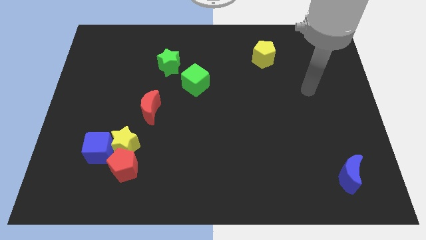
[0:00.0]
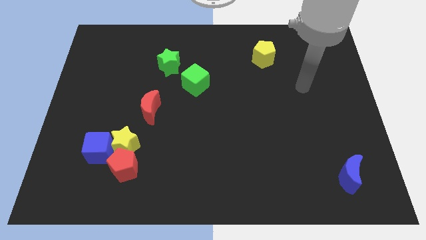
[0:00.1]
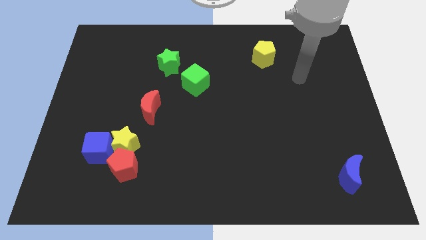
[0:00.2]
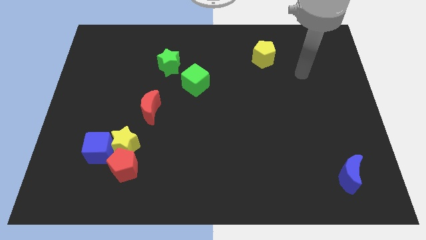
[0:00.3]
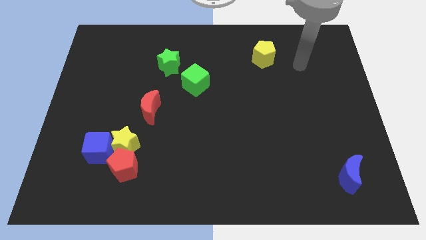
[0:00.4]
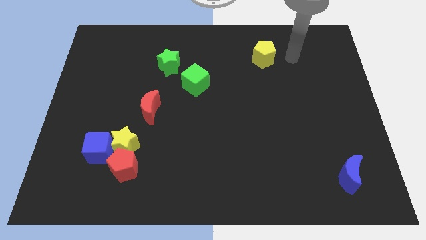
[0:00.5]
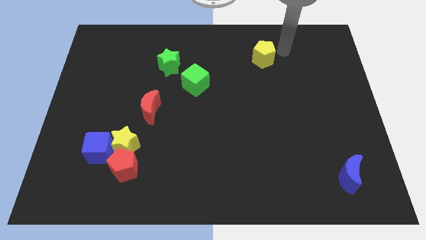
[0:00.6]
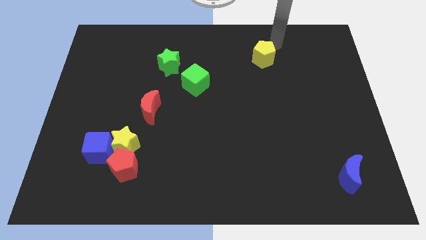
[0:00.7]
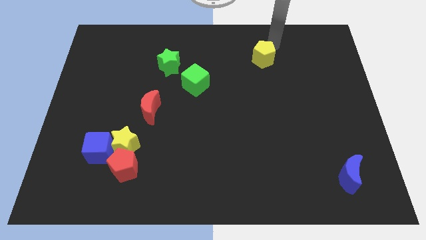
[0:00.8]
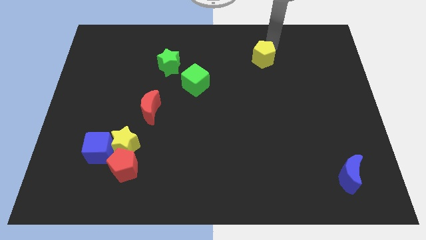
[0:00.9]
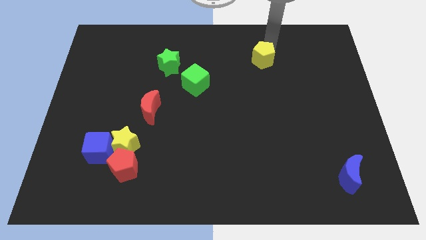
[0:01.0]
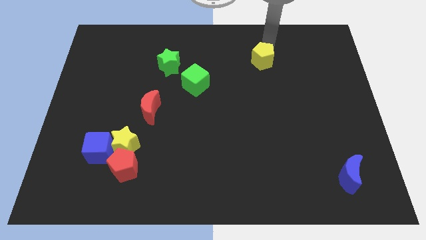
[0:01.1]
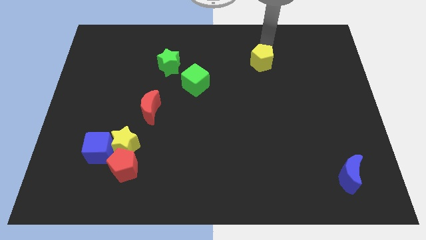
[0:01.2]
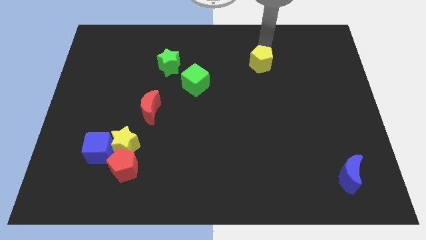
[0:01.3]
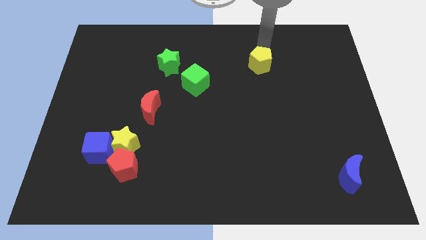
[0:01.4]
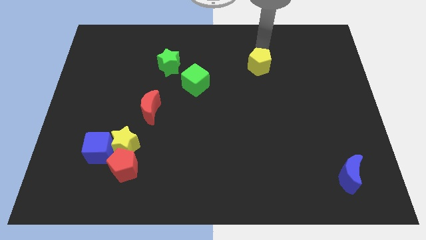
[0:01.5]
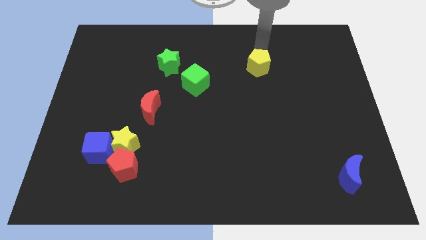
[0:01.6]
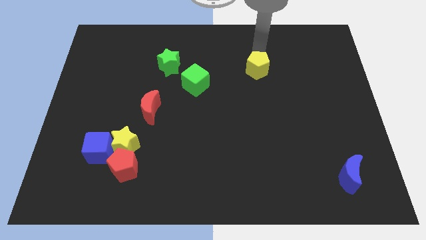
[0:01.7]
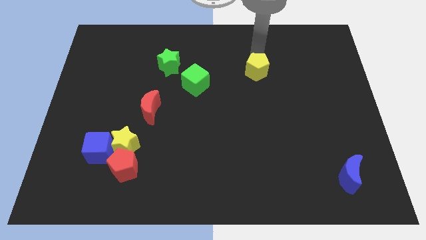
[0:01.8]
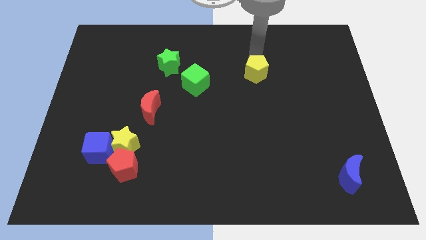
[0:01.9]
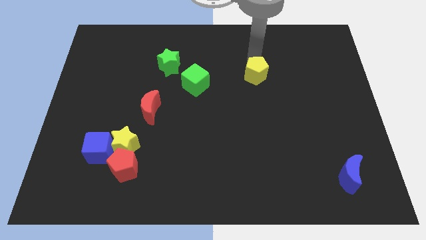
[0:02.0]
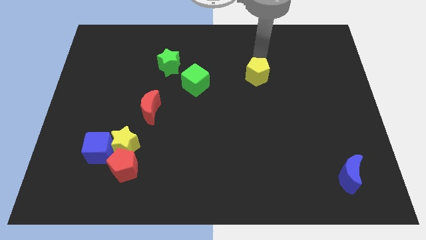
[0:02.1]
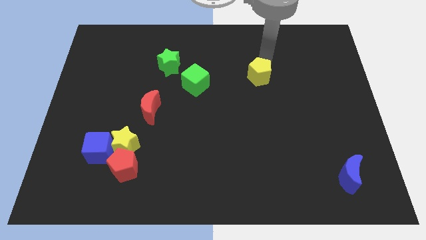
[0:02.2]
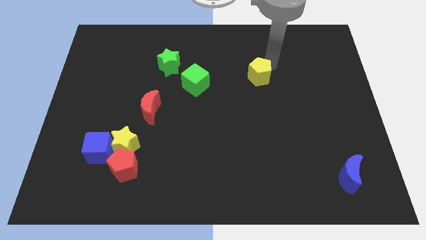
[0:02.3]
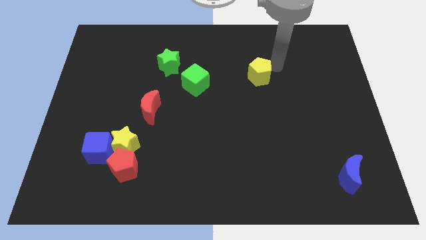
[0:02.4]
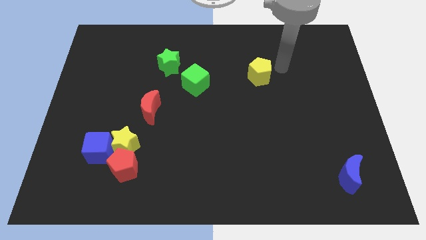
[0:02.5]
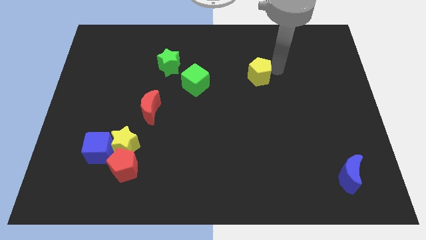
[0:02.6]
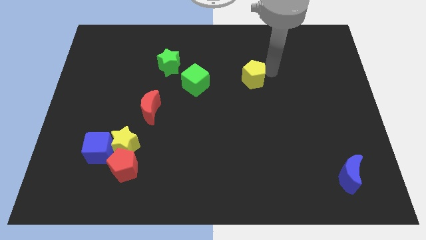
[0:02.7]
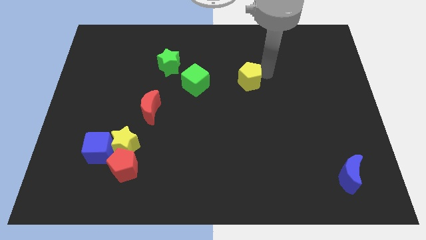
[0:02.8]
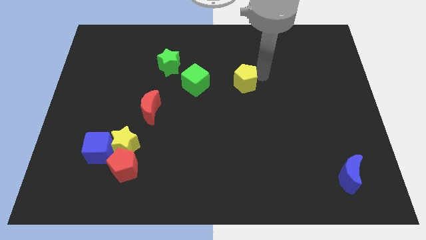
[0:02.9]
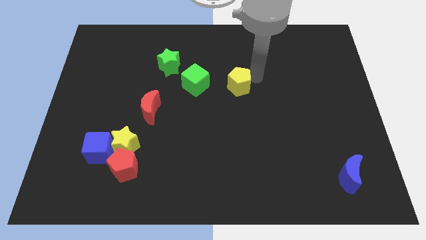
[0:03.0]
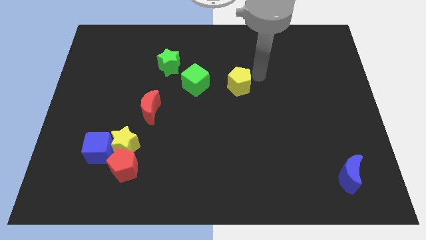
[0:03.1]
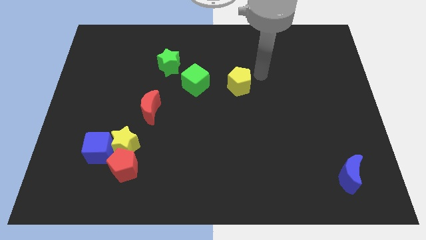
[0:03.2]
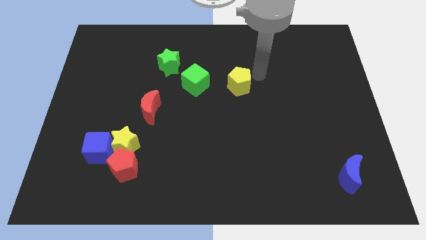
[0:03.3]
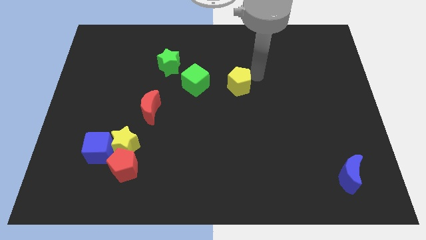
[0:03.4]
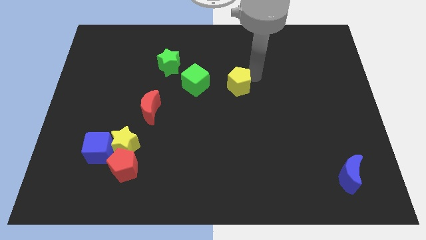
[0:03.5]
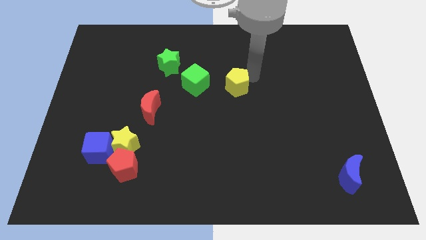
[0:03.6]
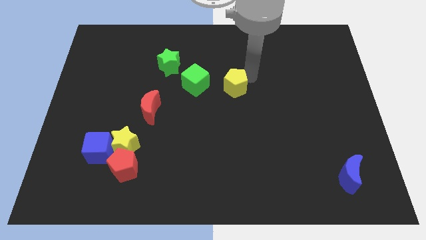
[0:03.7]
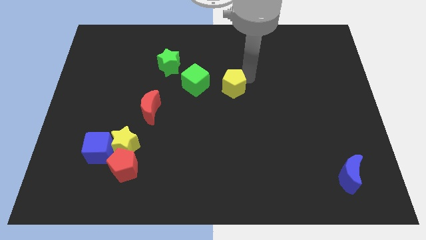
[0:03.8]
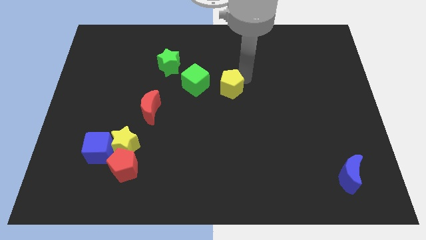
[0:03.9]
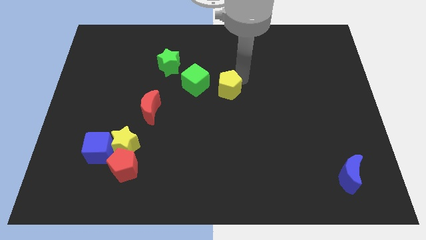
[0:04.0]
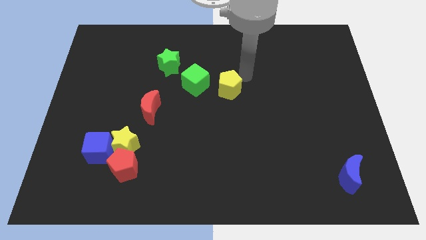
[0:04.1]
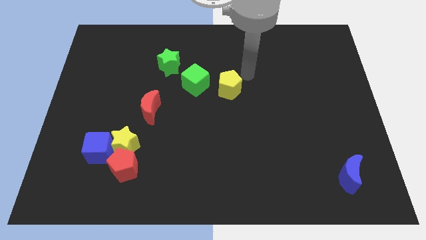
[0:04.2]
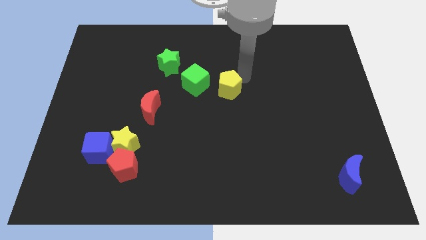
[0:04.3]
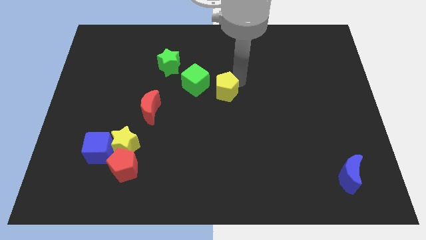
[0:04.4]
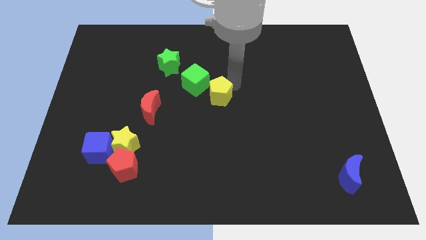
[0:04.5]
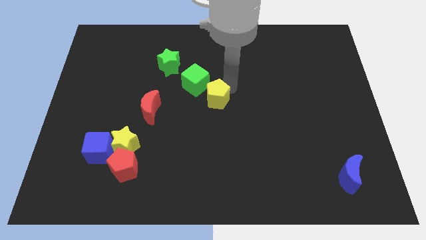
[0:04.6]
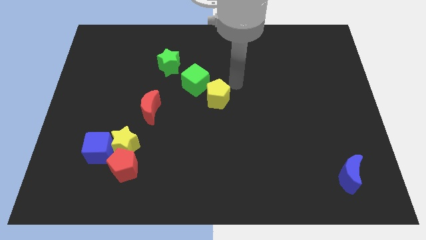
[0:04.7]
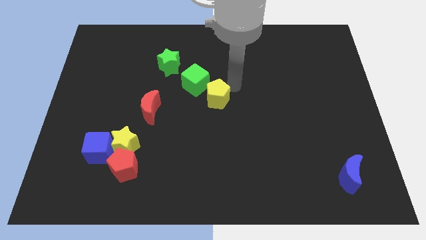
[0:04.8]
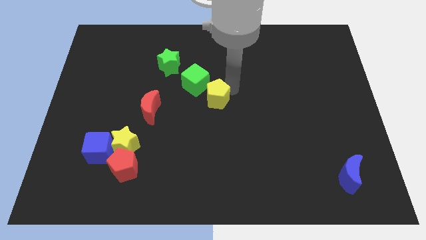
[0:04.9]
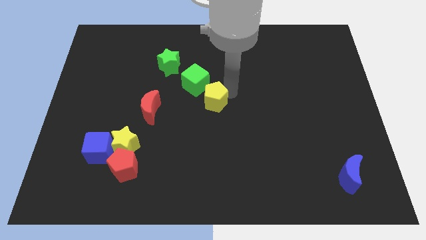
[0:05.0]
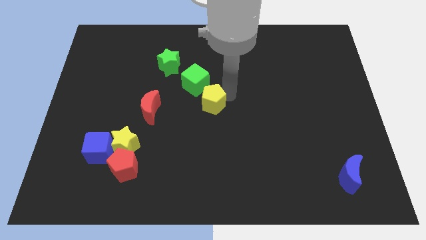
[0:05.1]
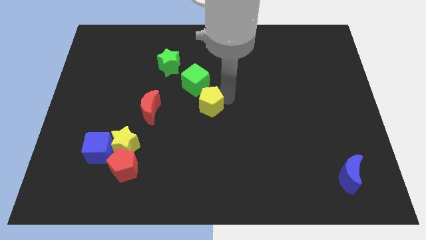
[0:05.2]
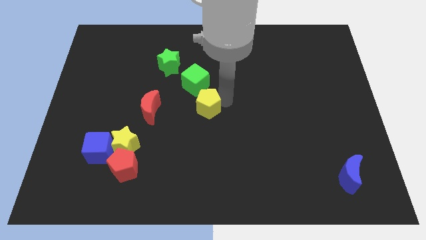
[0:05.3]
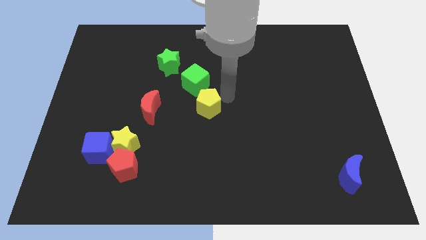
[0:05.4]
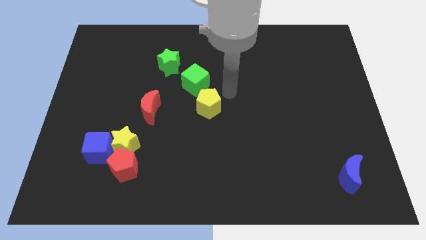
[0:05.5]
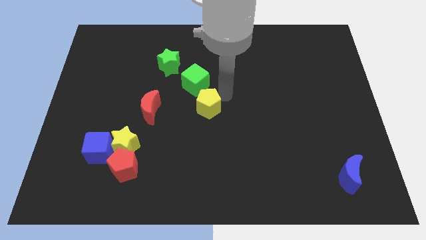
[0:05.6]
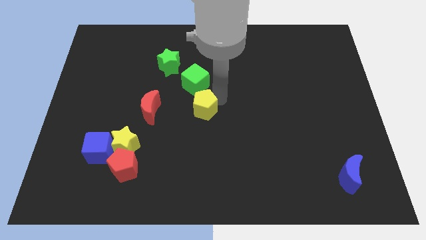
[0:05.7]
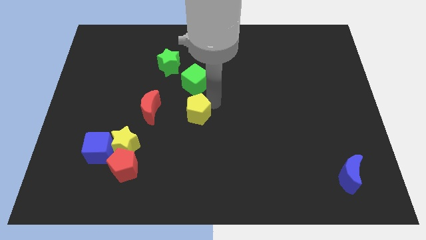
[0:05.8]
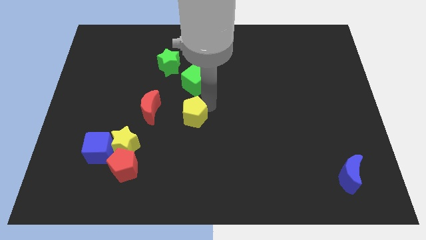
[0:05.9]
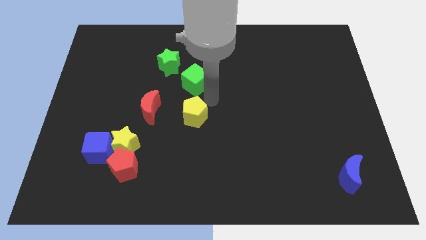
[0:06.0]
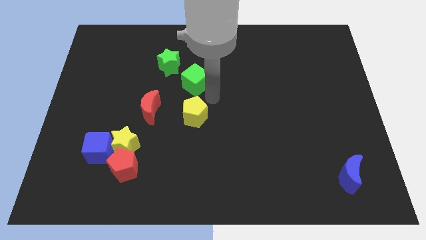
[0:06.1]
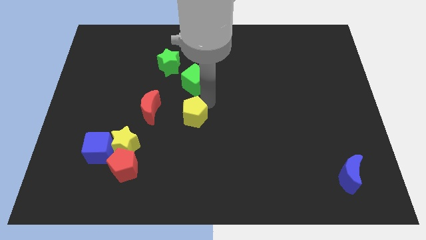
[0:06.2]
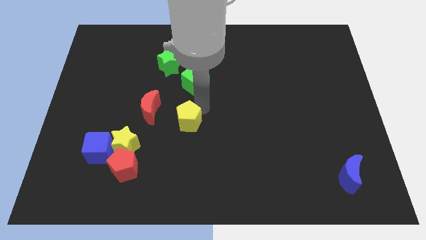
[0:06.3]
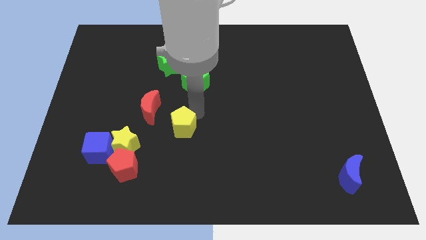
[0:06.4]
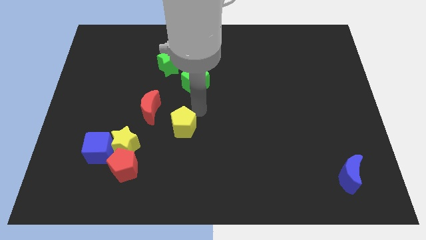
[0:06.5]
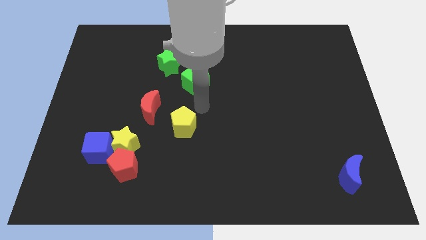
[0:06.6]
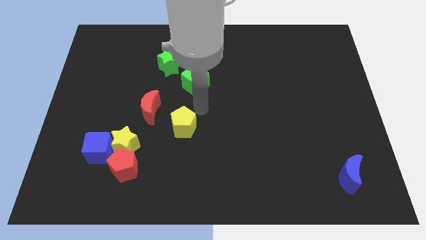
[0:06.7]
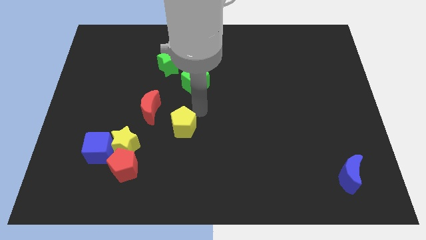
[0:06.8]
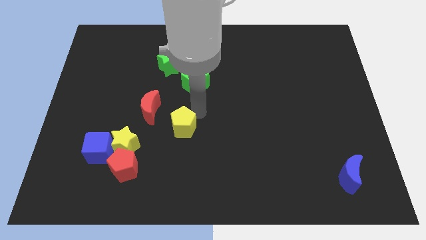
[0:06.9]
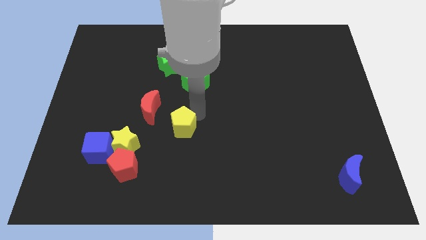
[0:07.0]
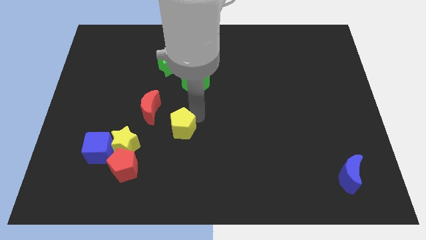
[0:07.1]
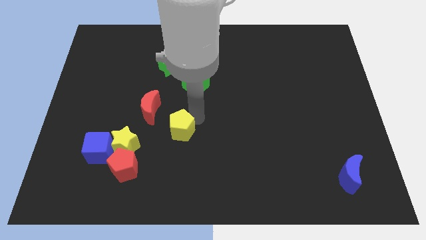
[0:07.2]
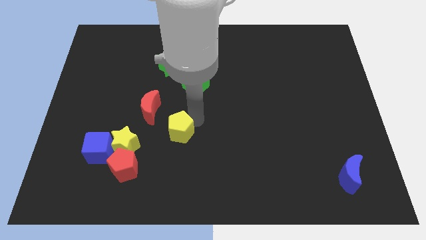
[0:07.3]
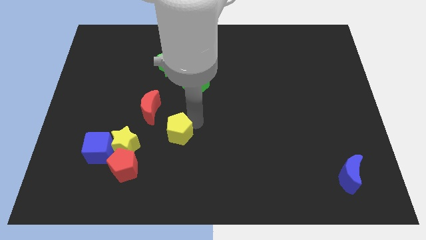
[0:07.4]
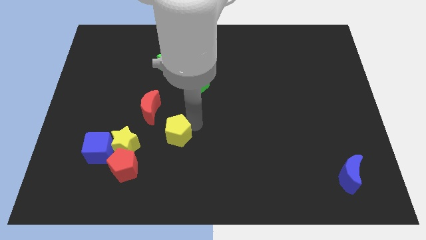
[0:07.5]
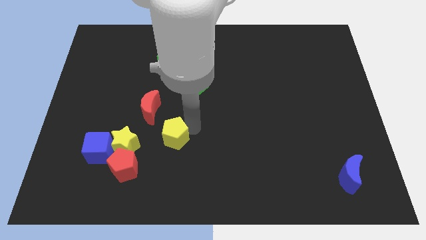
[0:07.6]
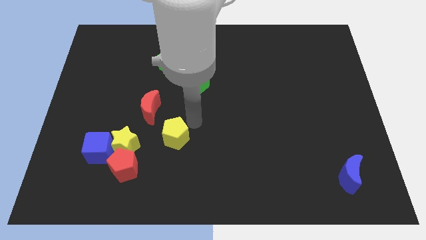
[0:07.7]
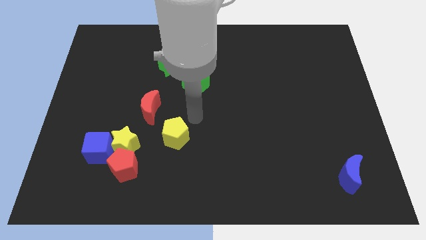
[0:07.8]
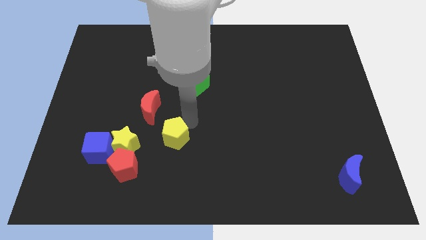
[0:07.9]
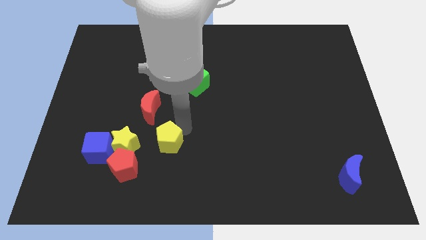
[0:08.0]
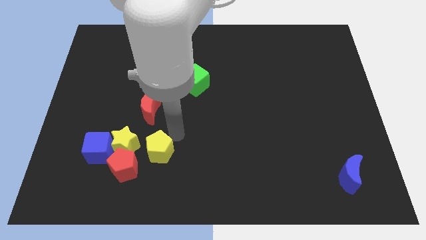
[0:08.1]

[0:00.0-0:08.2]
push the yellow pentagon diagonally down and to the right of the yellow star
